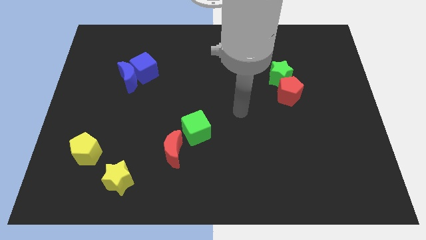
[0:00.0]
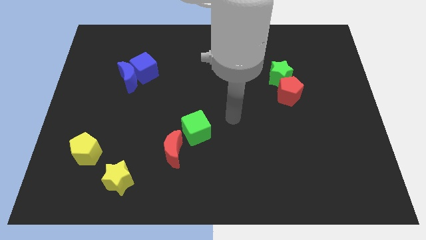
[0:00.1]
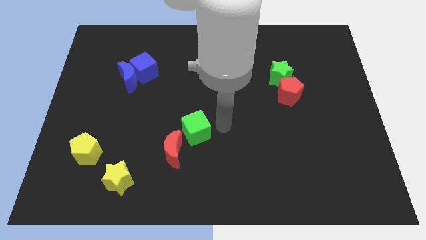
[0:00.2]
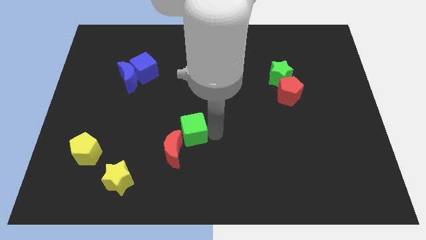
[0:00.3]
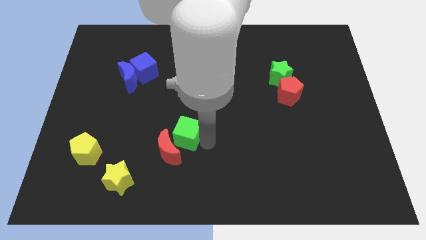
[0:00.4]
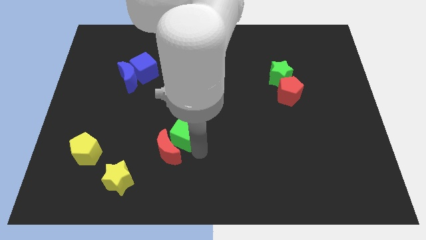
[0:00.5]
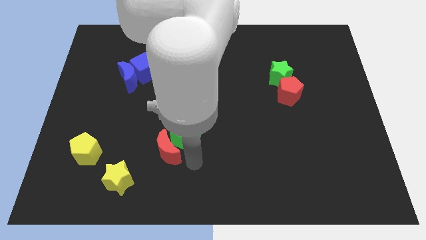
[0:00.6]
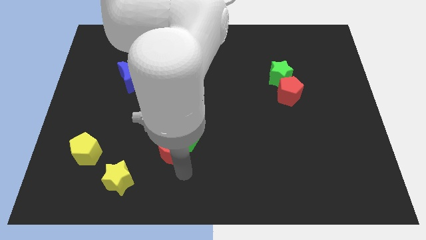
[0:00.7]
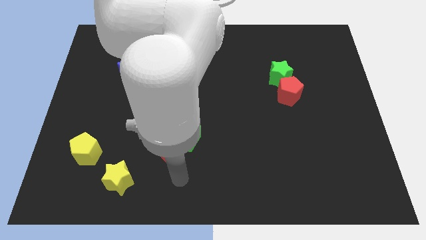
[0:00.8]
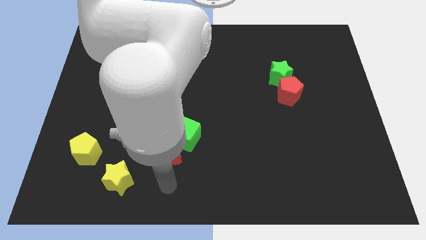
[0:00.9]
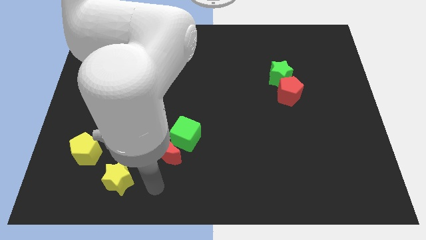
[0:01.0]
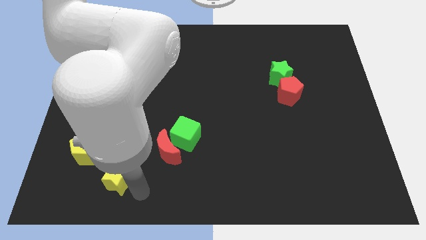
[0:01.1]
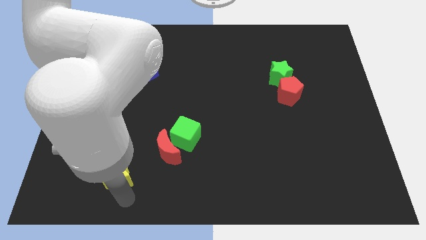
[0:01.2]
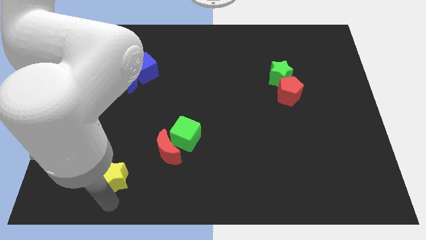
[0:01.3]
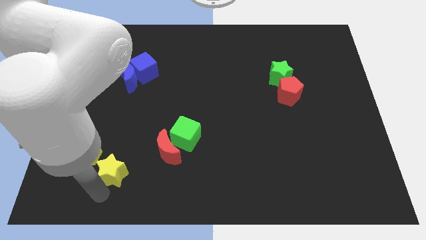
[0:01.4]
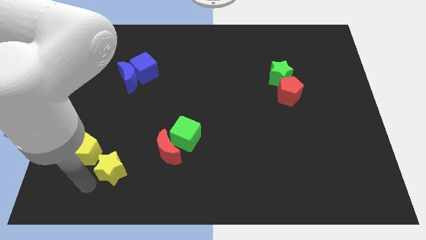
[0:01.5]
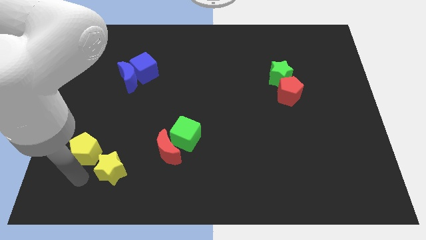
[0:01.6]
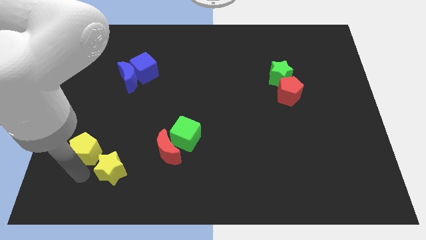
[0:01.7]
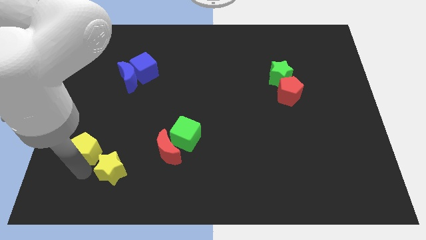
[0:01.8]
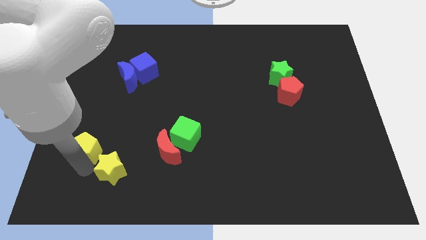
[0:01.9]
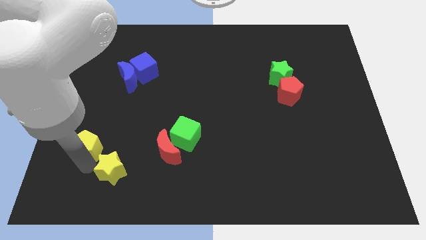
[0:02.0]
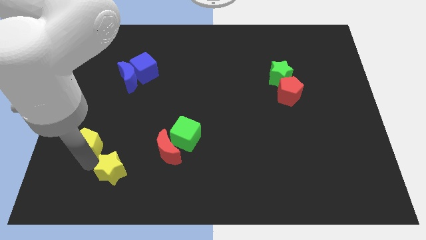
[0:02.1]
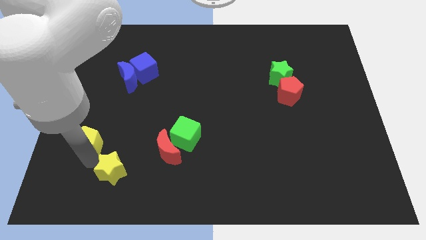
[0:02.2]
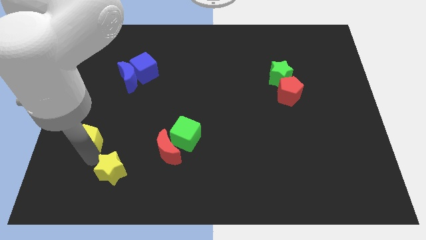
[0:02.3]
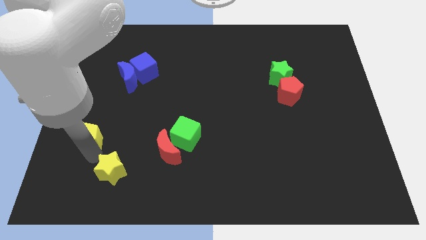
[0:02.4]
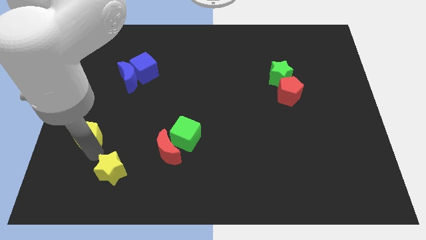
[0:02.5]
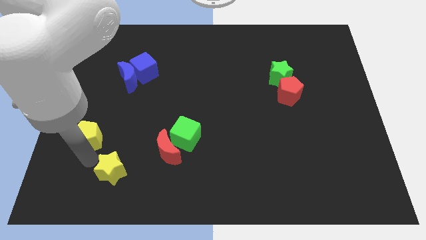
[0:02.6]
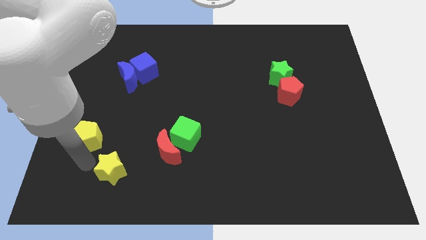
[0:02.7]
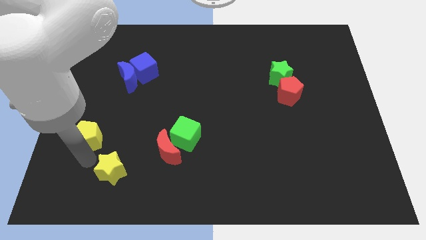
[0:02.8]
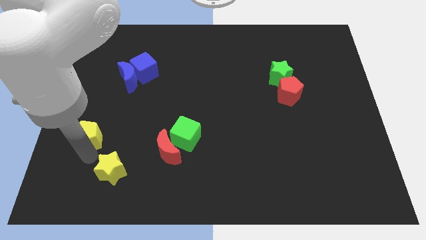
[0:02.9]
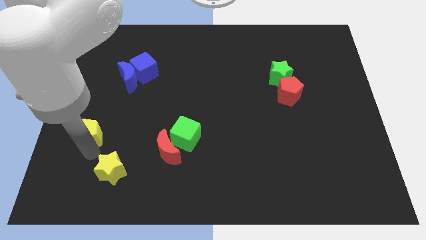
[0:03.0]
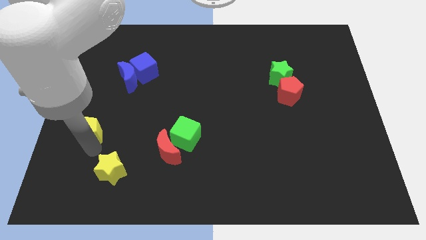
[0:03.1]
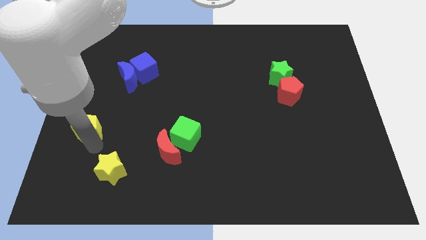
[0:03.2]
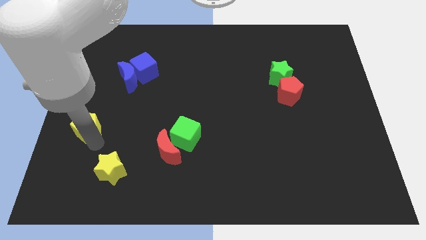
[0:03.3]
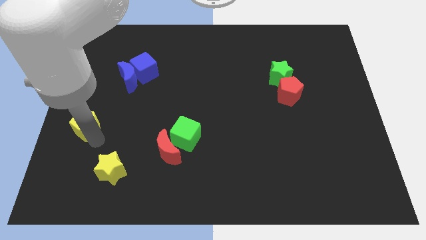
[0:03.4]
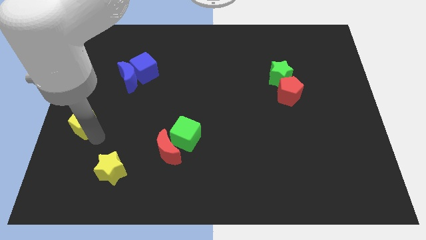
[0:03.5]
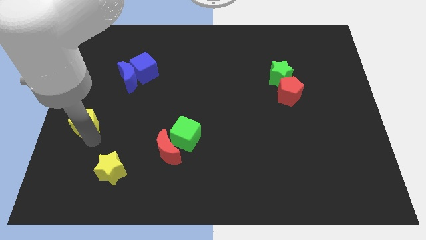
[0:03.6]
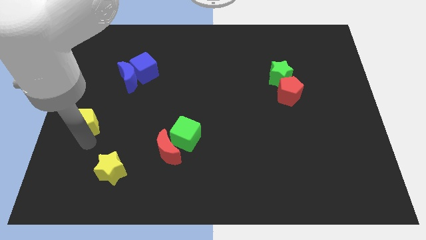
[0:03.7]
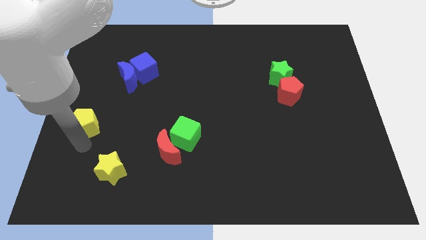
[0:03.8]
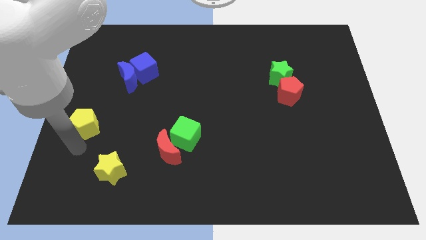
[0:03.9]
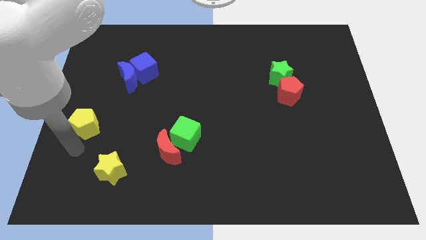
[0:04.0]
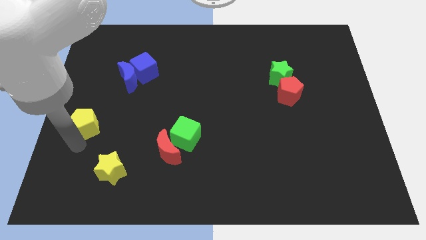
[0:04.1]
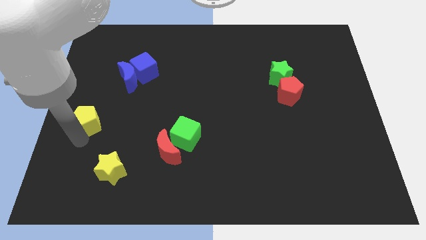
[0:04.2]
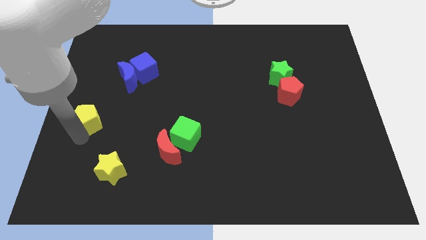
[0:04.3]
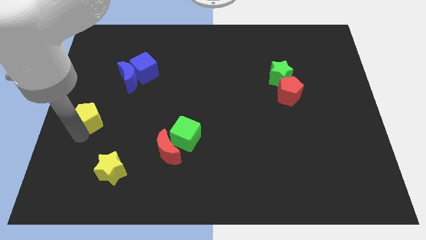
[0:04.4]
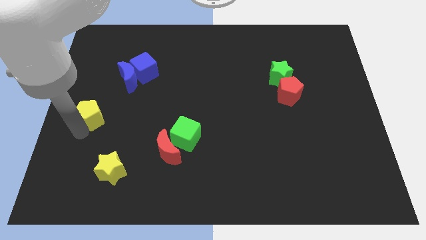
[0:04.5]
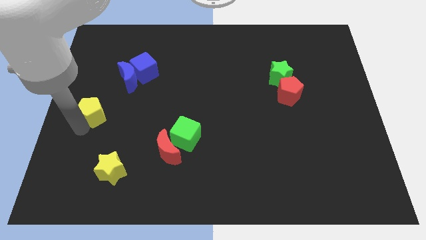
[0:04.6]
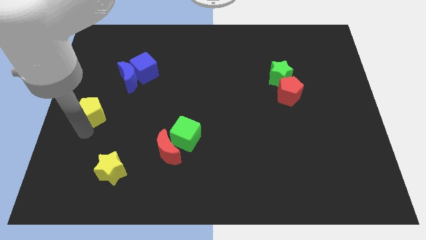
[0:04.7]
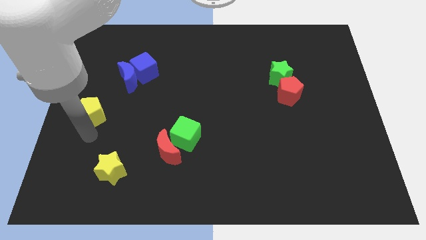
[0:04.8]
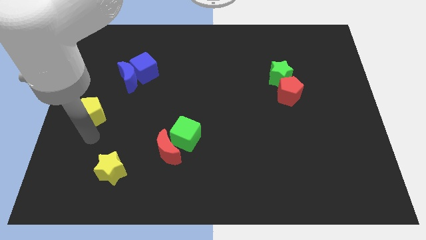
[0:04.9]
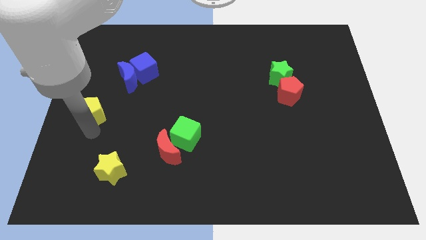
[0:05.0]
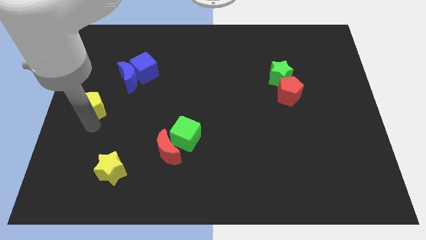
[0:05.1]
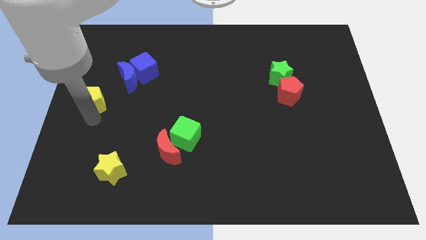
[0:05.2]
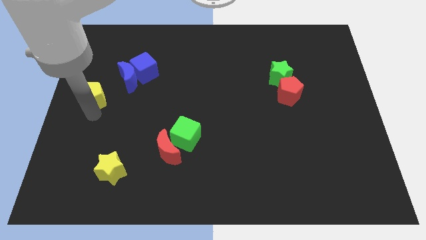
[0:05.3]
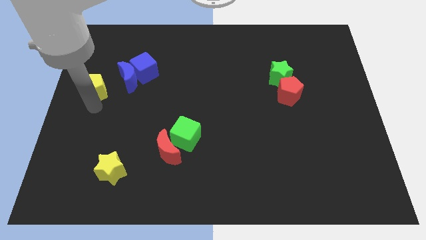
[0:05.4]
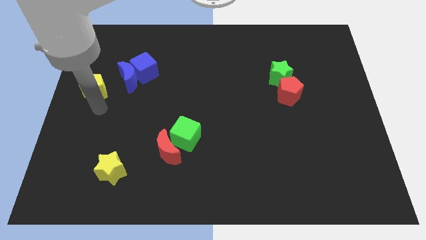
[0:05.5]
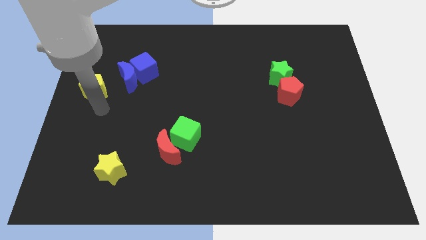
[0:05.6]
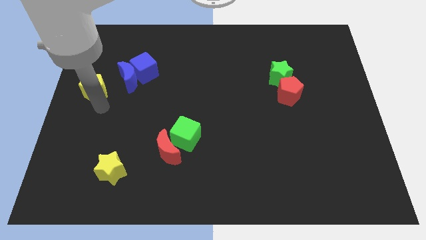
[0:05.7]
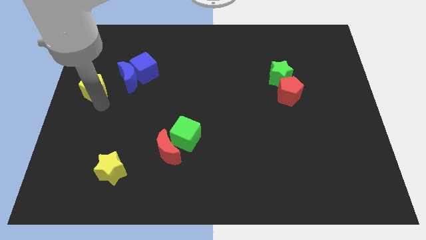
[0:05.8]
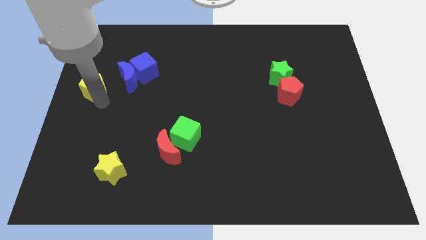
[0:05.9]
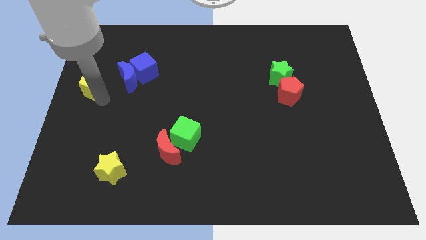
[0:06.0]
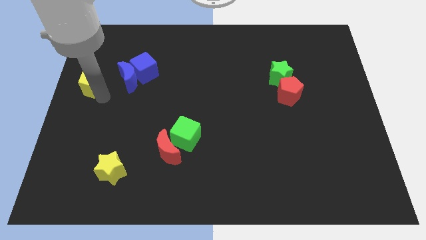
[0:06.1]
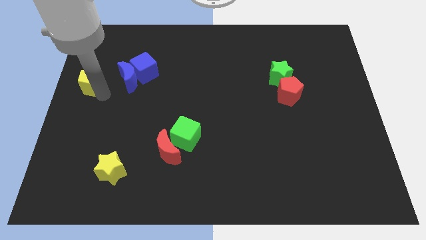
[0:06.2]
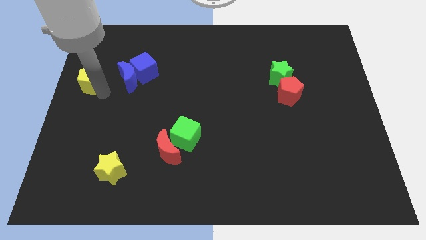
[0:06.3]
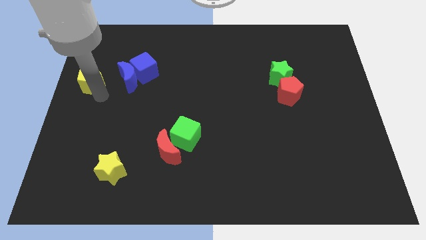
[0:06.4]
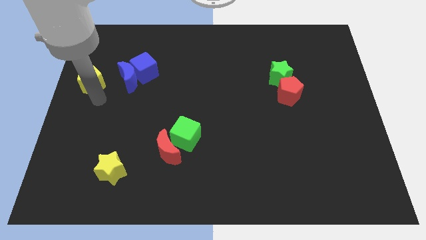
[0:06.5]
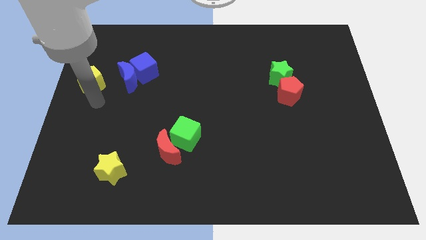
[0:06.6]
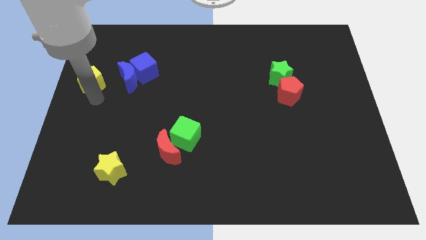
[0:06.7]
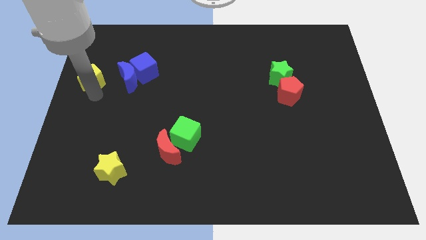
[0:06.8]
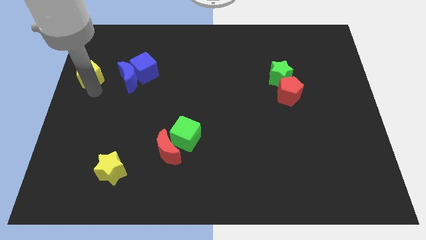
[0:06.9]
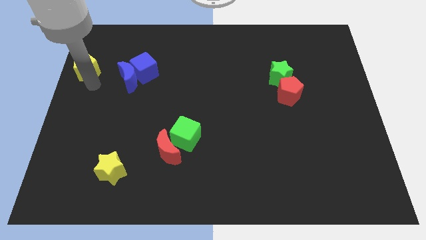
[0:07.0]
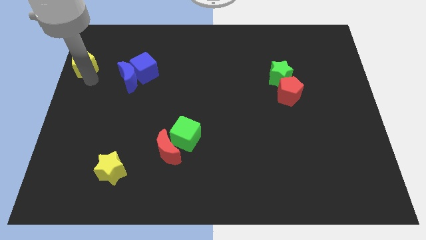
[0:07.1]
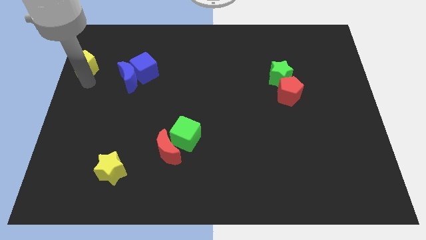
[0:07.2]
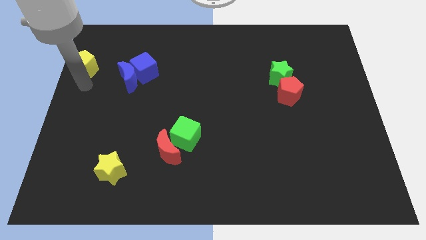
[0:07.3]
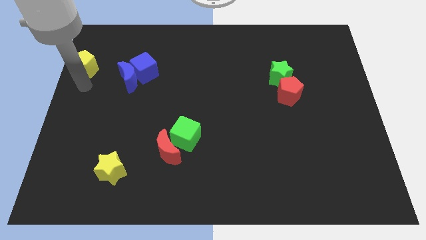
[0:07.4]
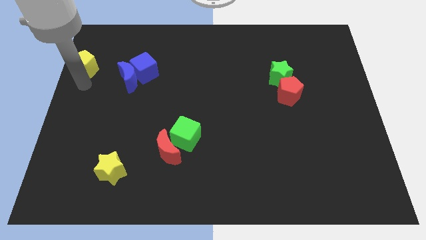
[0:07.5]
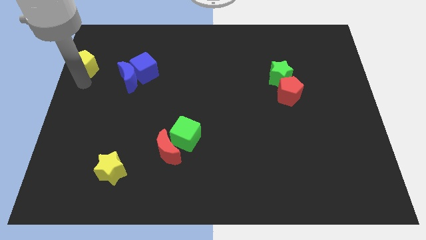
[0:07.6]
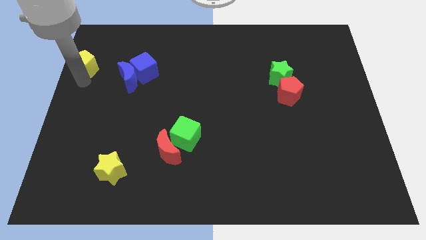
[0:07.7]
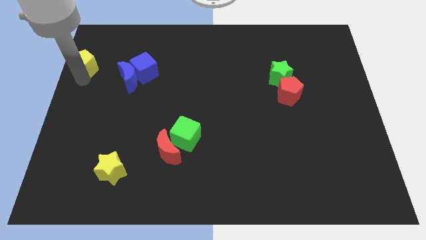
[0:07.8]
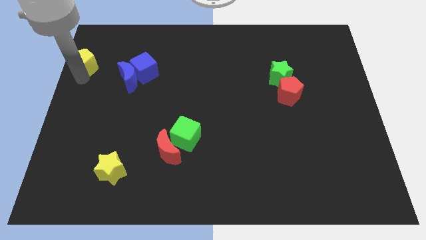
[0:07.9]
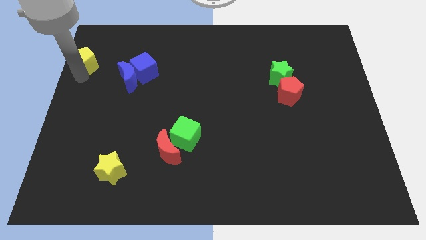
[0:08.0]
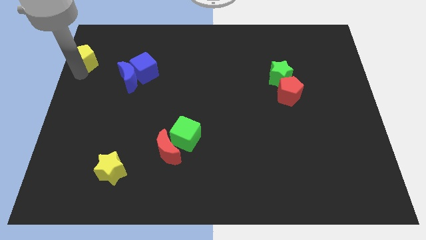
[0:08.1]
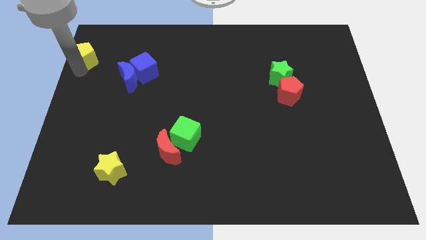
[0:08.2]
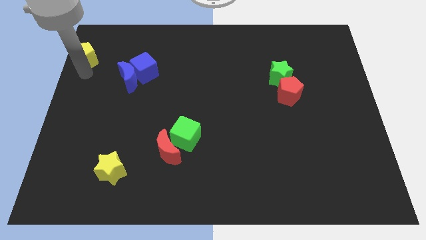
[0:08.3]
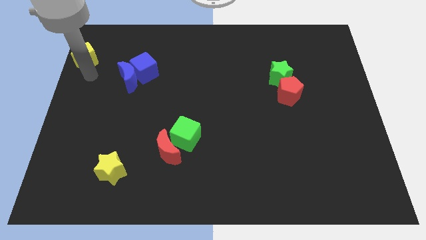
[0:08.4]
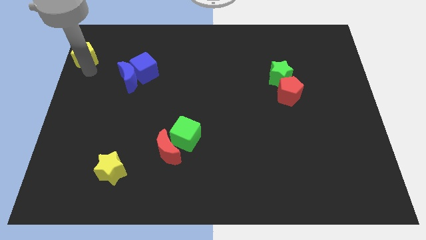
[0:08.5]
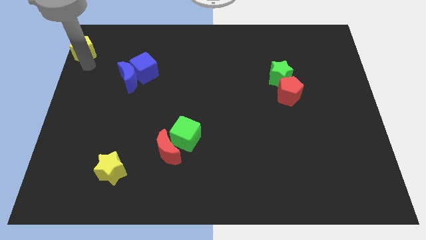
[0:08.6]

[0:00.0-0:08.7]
slide the yellow pentagon to the top left of the board
